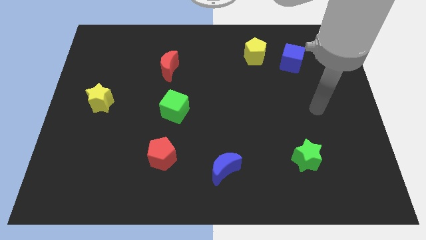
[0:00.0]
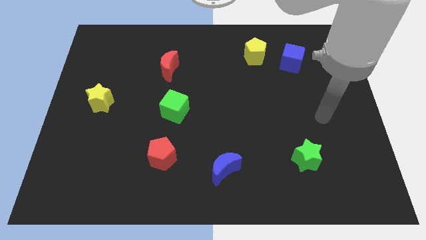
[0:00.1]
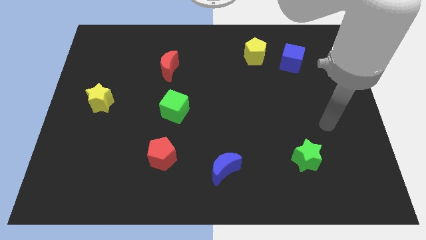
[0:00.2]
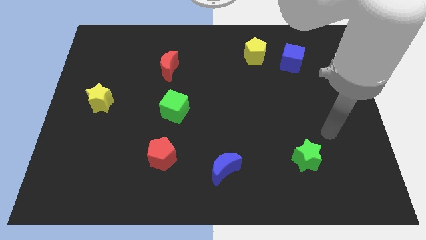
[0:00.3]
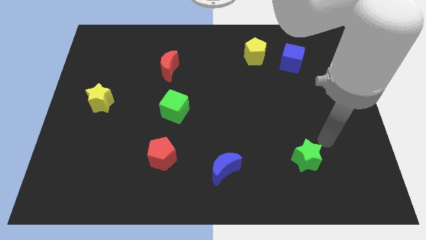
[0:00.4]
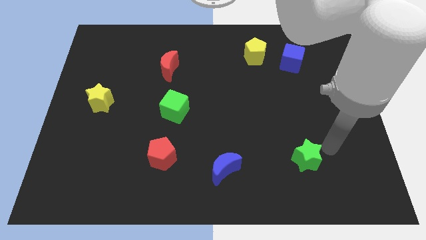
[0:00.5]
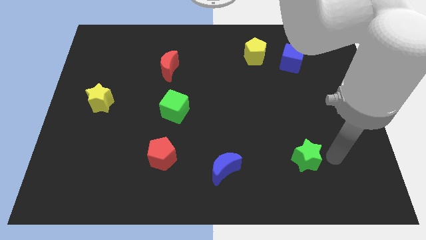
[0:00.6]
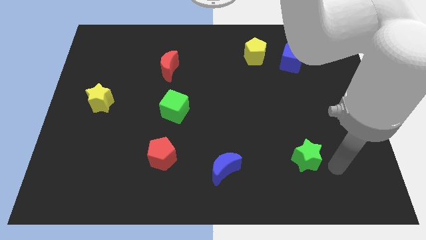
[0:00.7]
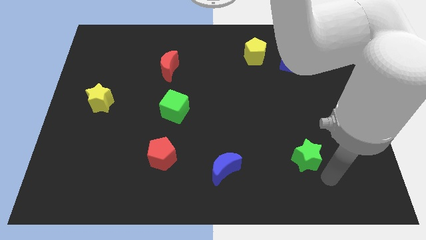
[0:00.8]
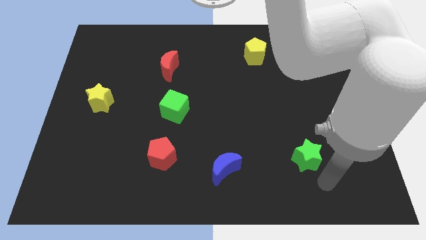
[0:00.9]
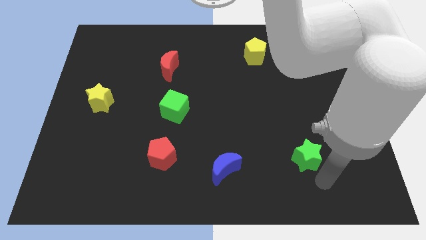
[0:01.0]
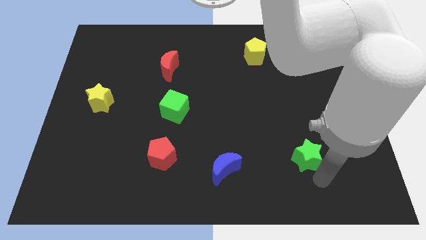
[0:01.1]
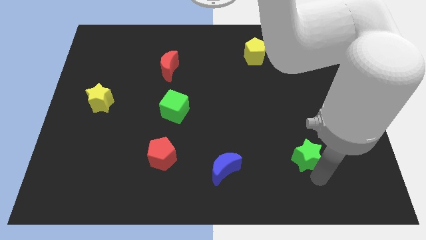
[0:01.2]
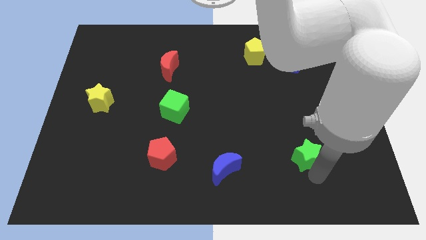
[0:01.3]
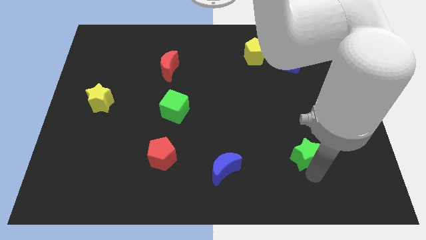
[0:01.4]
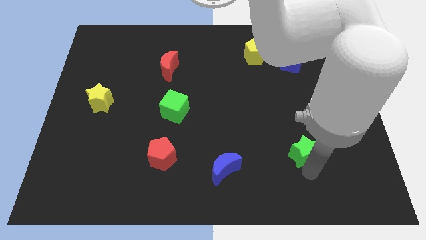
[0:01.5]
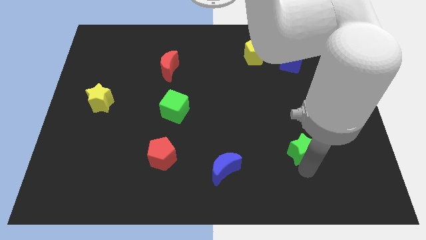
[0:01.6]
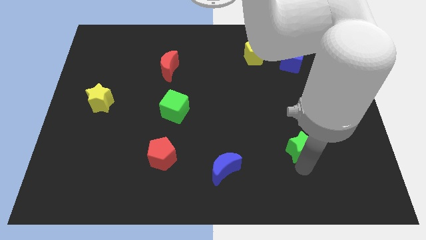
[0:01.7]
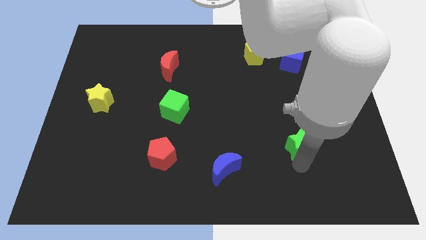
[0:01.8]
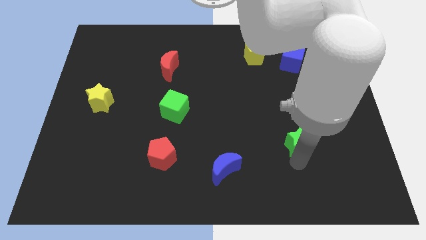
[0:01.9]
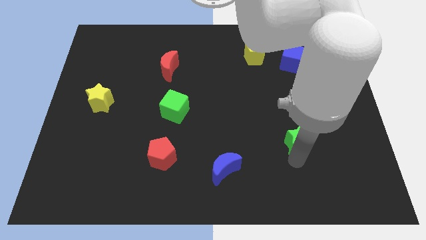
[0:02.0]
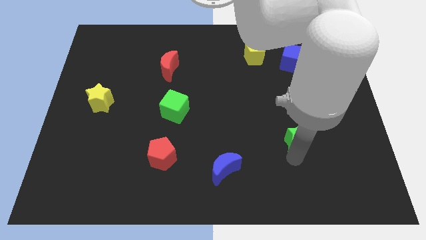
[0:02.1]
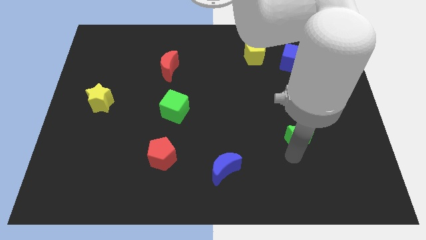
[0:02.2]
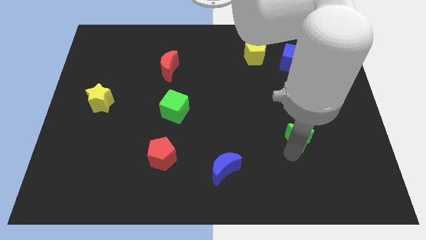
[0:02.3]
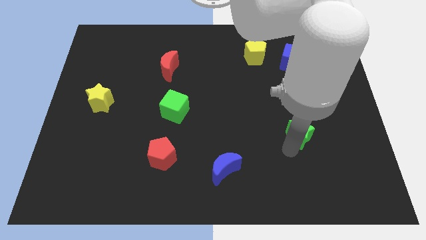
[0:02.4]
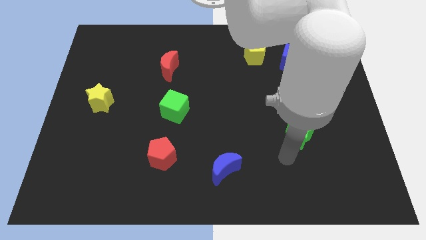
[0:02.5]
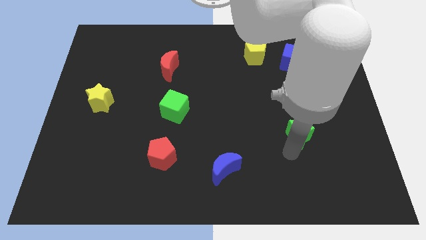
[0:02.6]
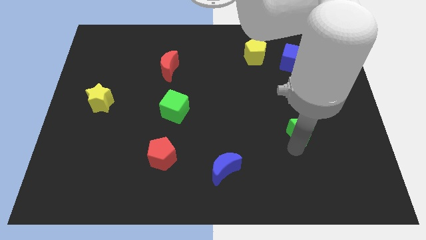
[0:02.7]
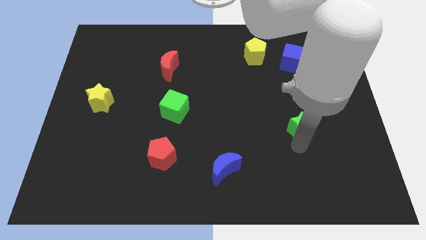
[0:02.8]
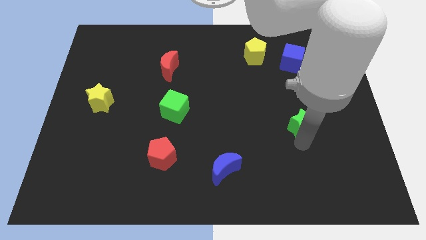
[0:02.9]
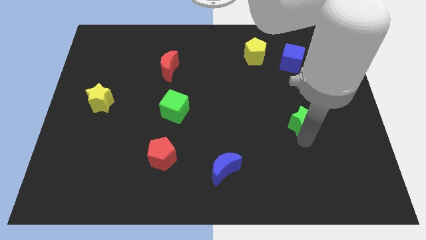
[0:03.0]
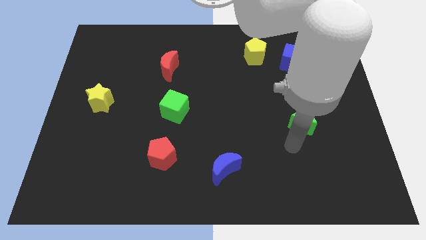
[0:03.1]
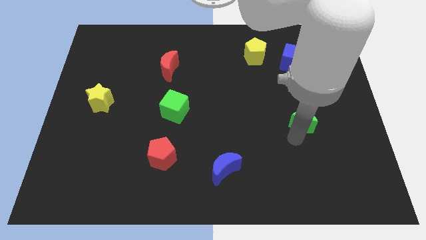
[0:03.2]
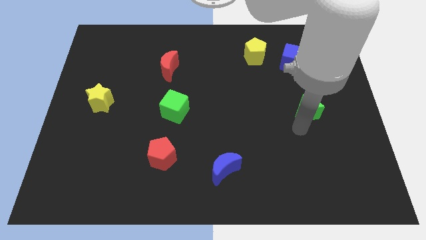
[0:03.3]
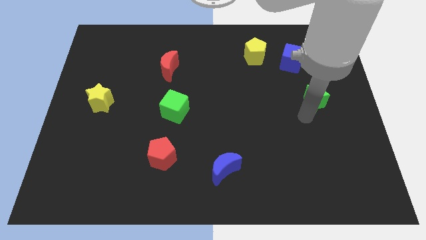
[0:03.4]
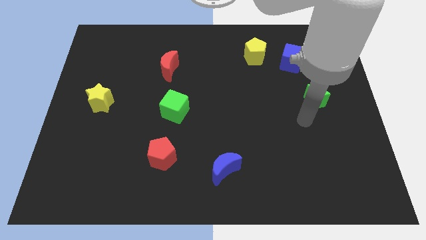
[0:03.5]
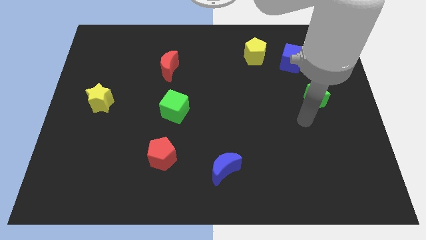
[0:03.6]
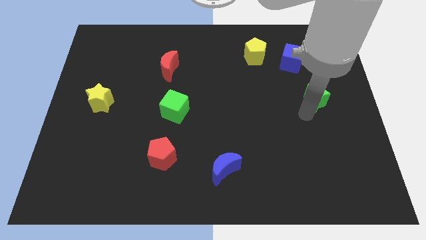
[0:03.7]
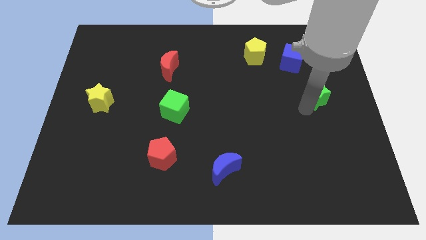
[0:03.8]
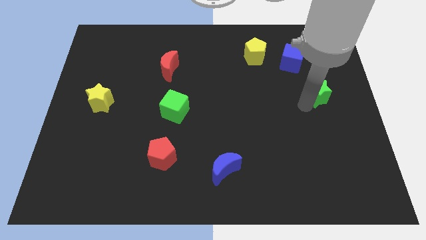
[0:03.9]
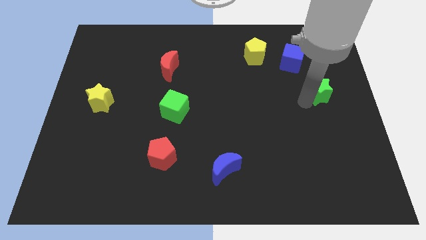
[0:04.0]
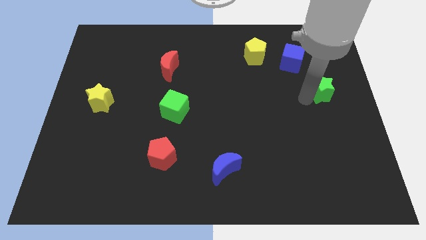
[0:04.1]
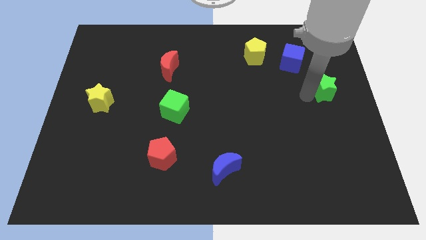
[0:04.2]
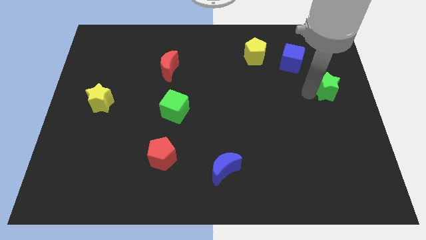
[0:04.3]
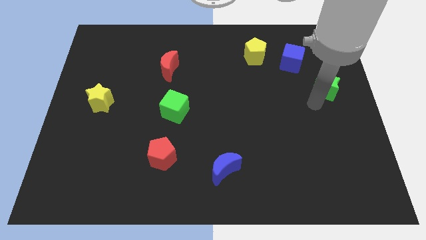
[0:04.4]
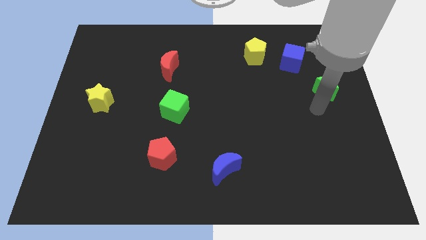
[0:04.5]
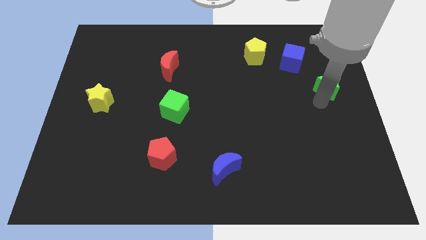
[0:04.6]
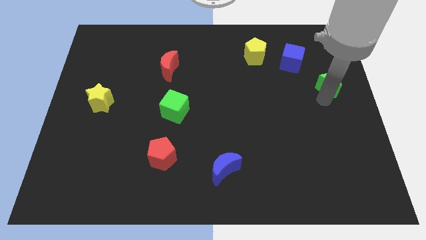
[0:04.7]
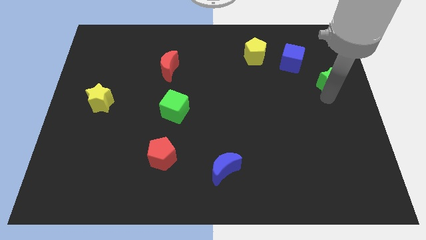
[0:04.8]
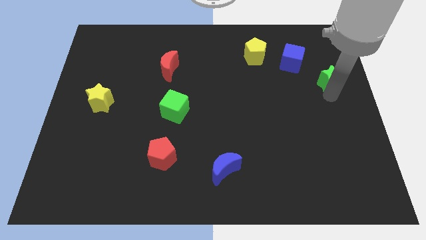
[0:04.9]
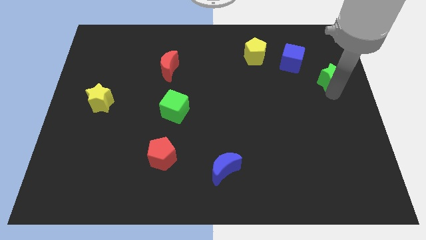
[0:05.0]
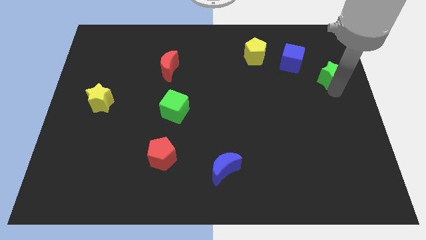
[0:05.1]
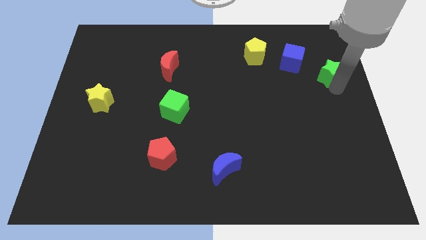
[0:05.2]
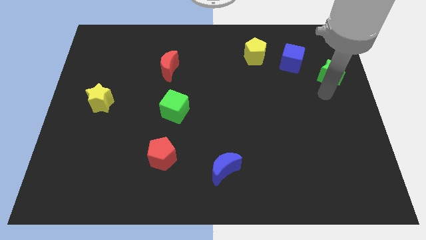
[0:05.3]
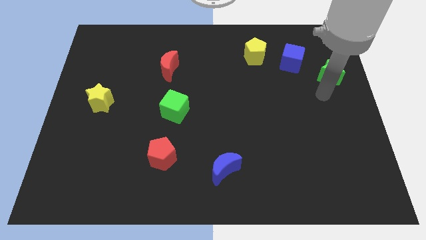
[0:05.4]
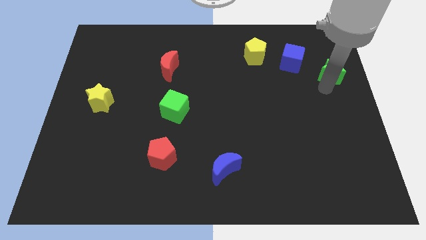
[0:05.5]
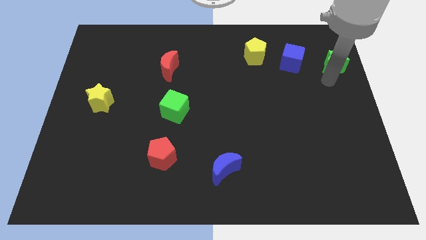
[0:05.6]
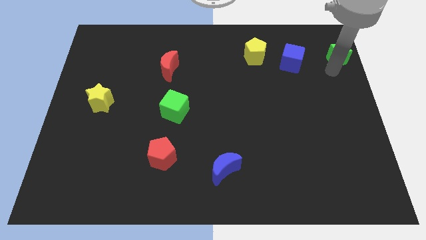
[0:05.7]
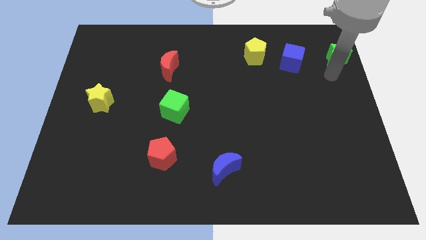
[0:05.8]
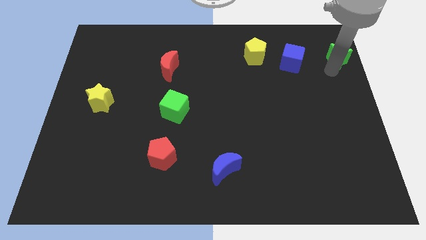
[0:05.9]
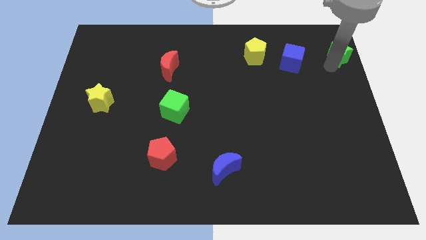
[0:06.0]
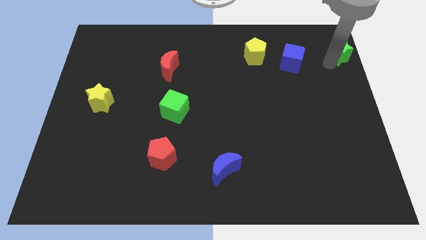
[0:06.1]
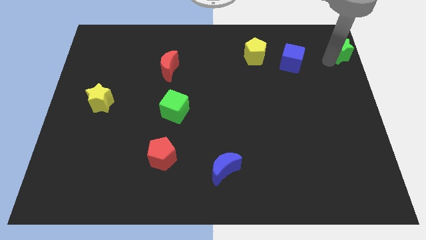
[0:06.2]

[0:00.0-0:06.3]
move the green star to the top right corner

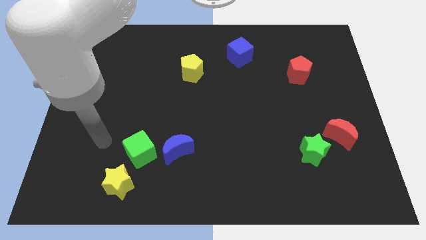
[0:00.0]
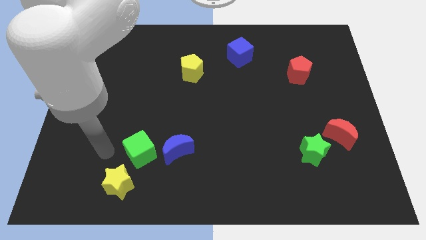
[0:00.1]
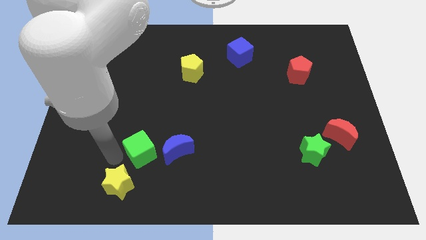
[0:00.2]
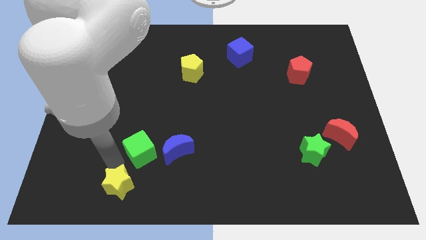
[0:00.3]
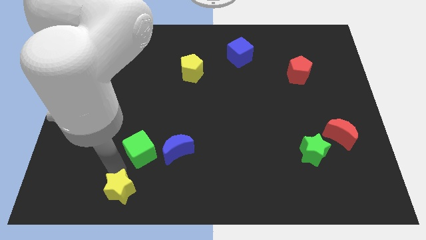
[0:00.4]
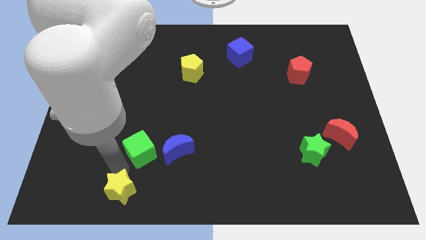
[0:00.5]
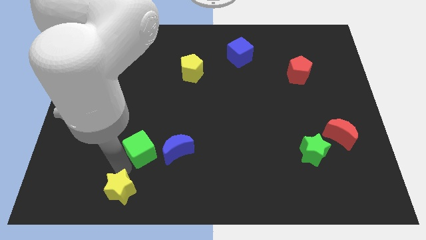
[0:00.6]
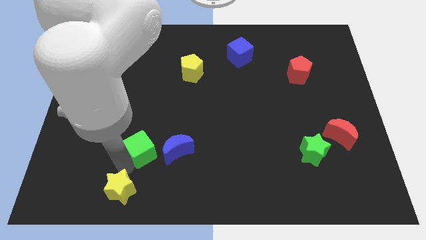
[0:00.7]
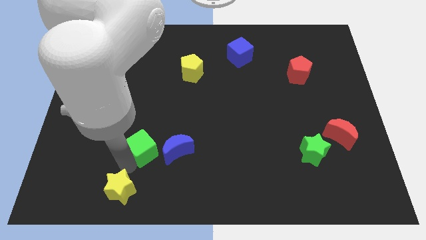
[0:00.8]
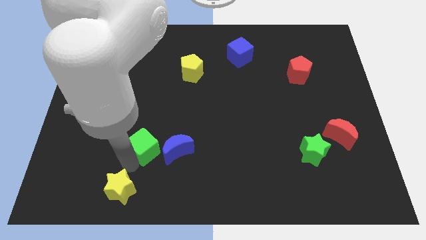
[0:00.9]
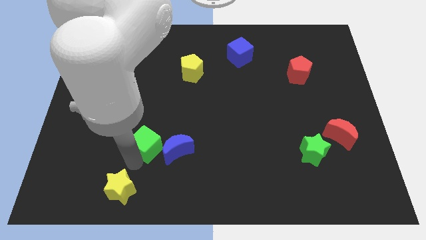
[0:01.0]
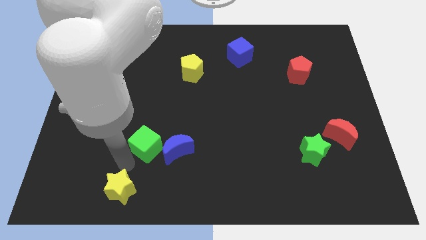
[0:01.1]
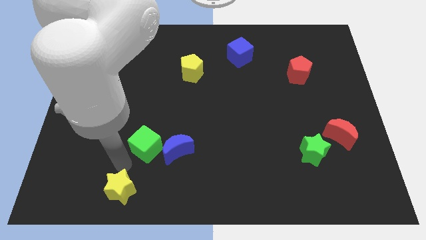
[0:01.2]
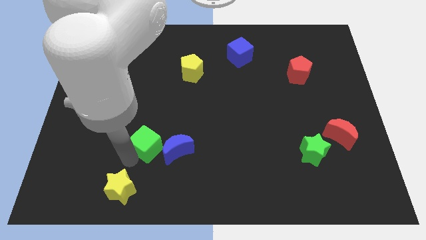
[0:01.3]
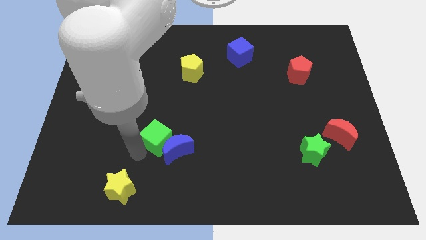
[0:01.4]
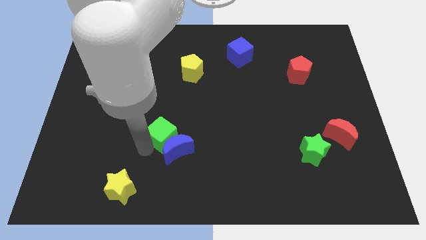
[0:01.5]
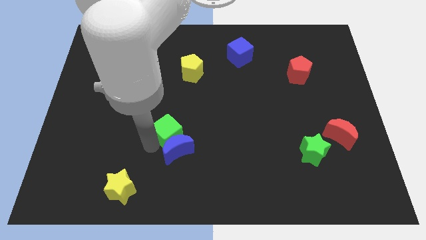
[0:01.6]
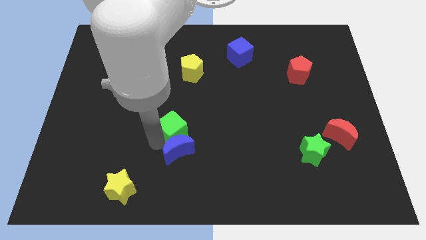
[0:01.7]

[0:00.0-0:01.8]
move the green cube to the middle of the board
